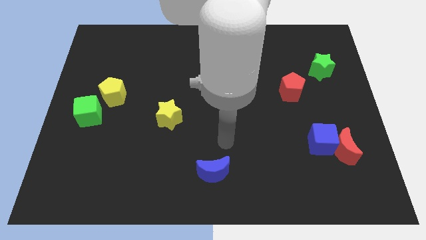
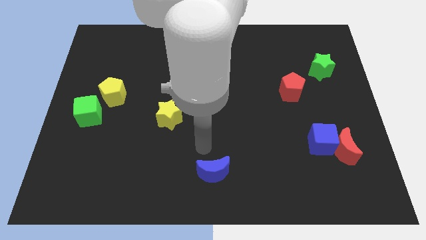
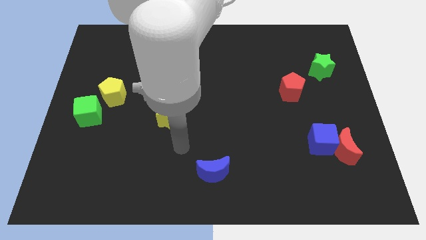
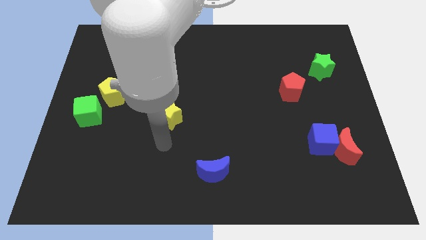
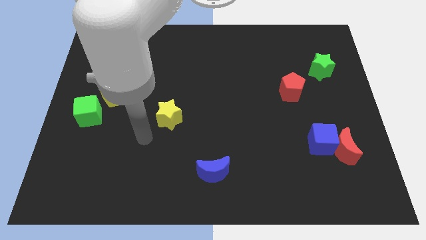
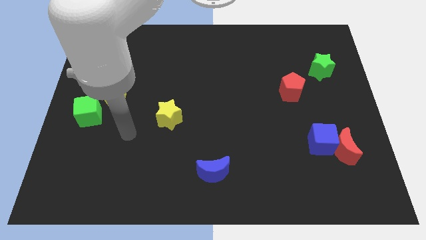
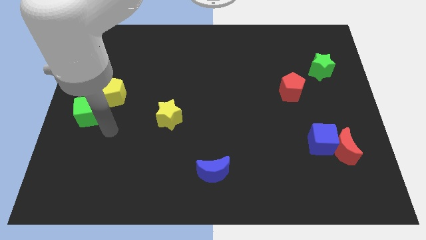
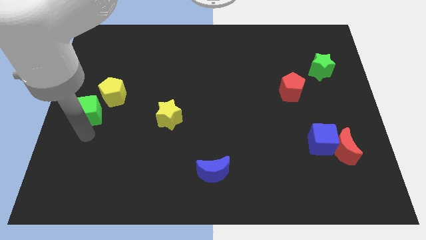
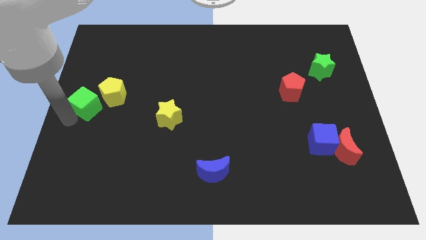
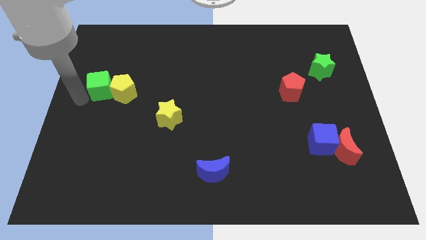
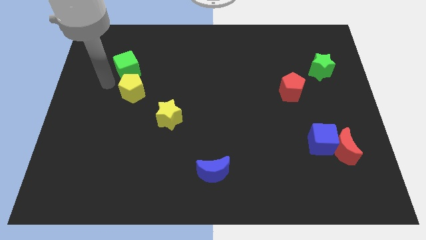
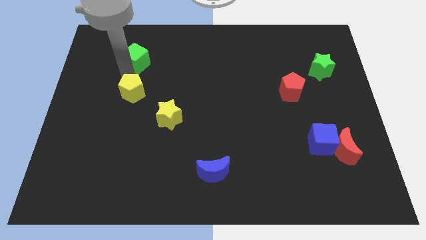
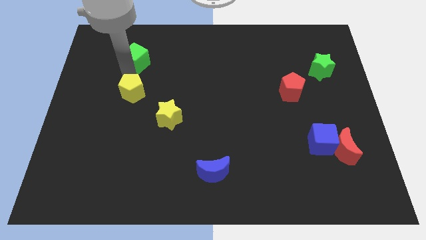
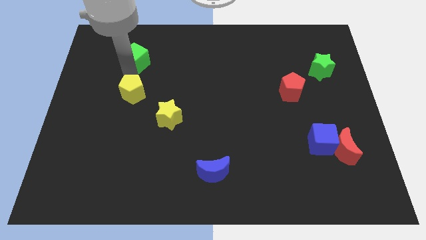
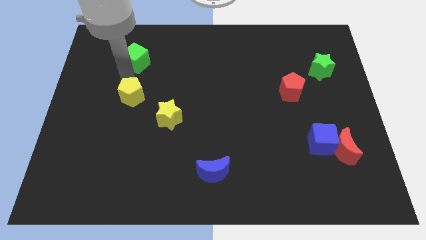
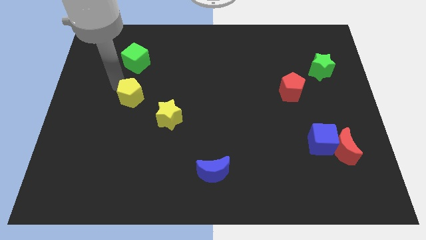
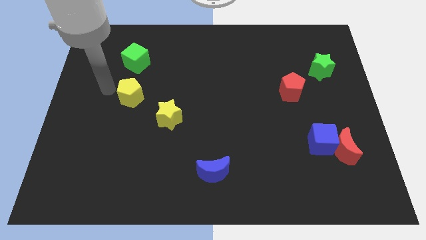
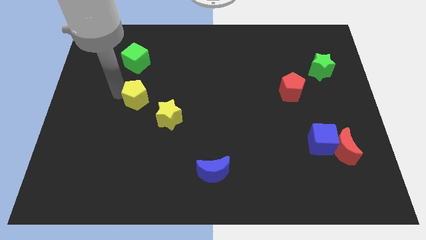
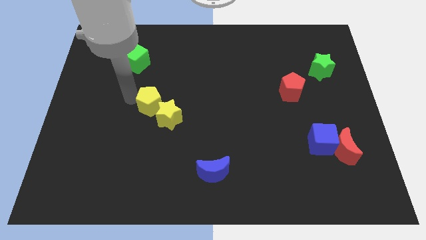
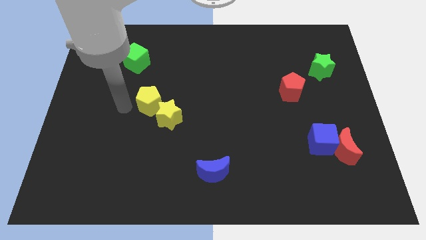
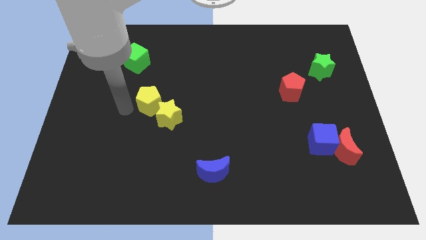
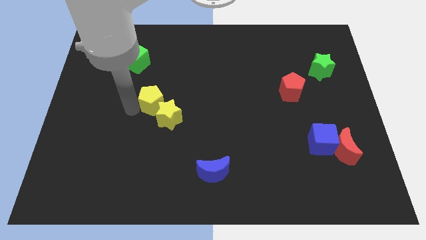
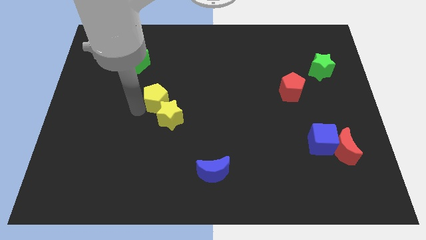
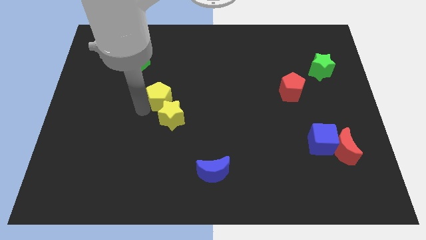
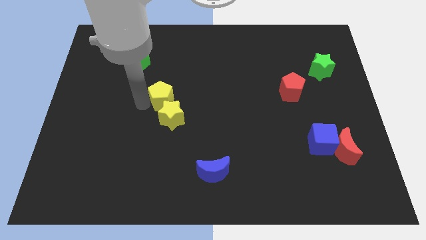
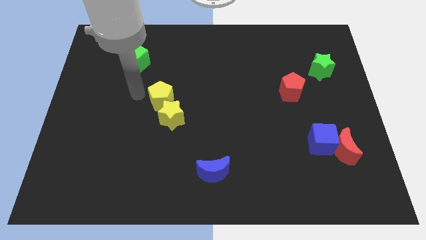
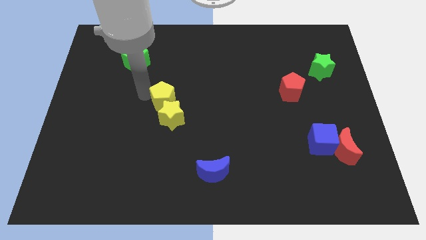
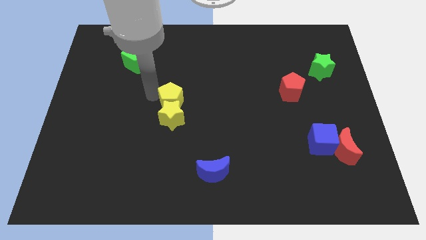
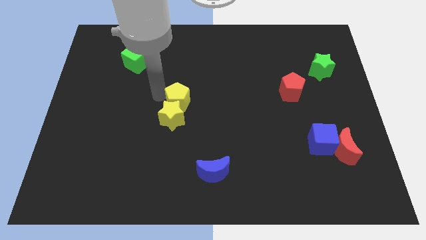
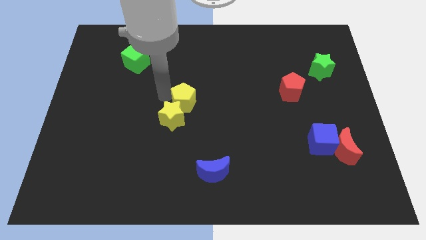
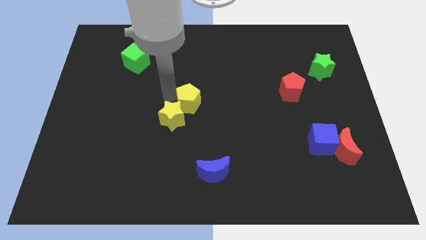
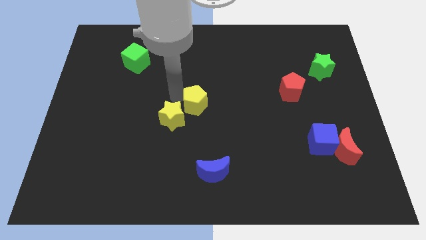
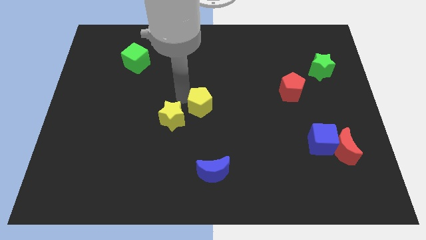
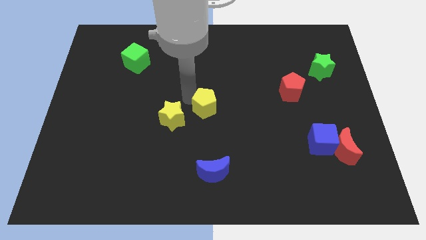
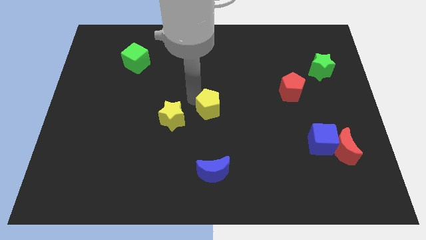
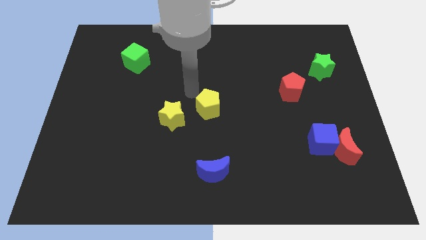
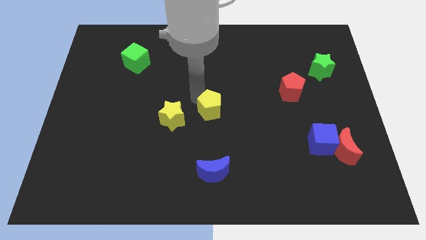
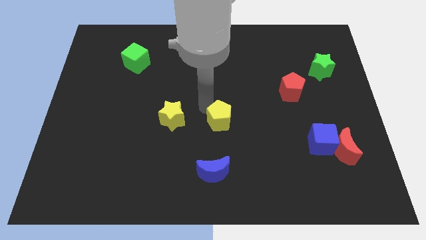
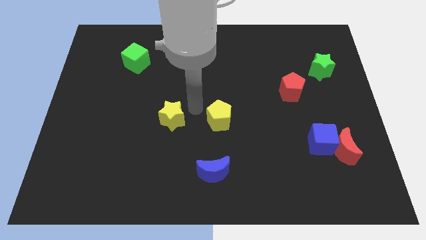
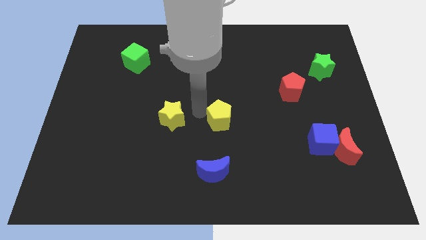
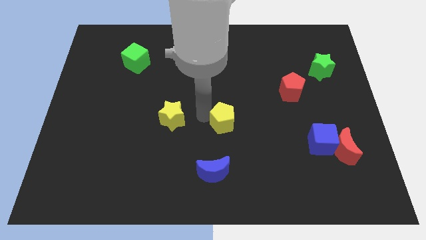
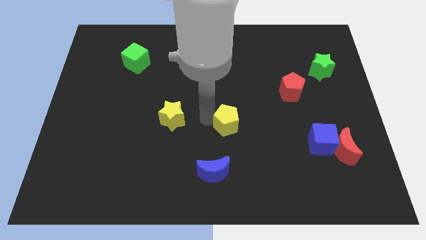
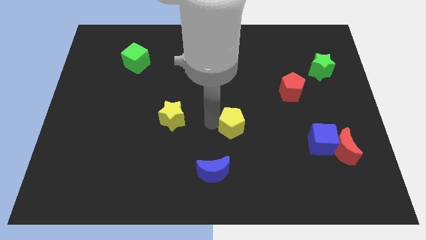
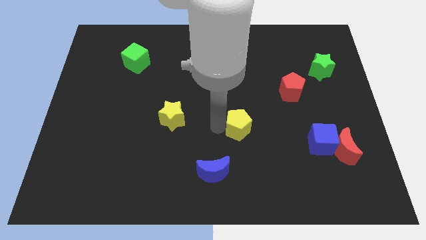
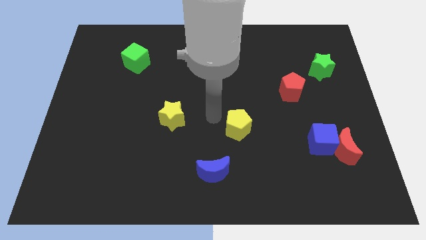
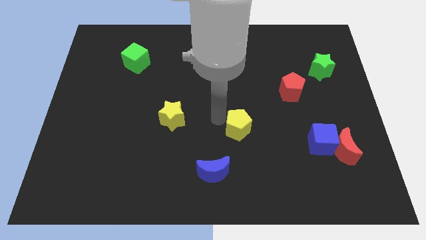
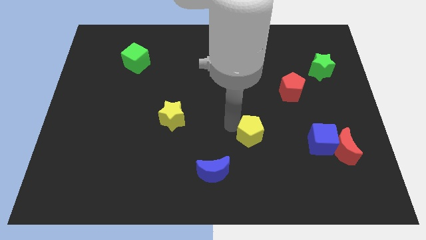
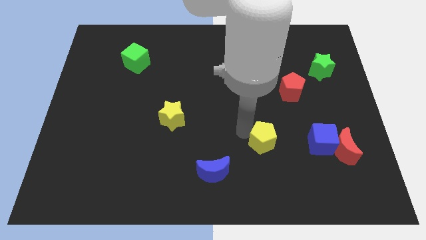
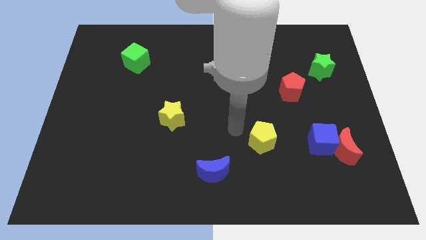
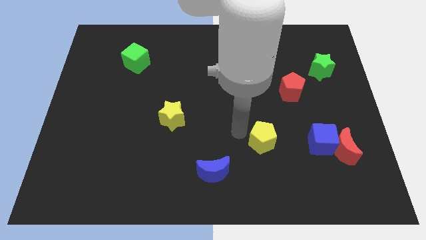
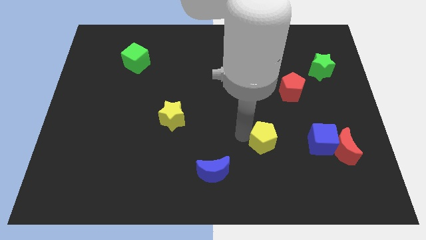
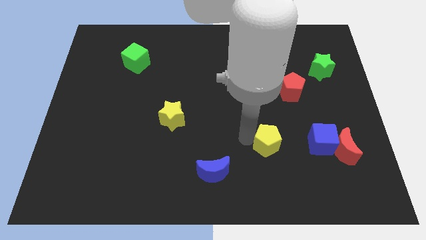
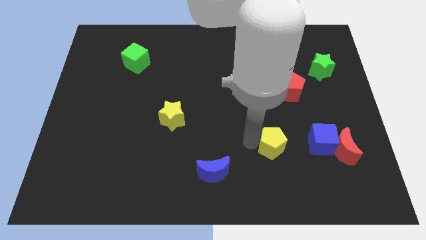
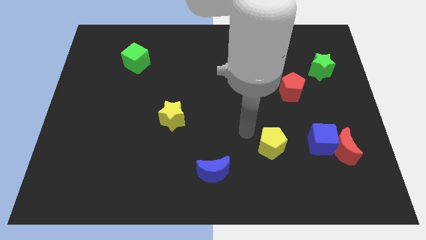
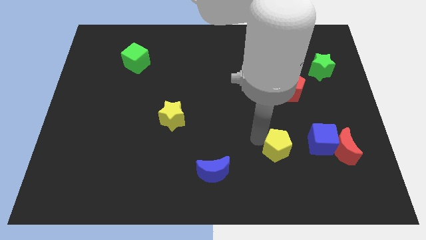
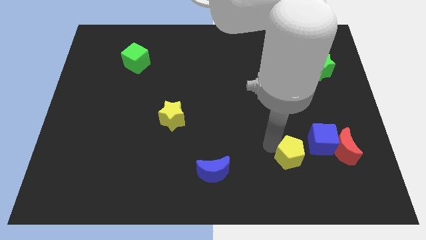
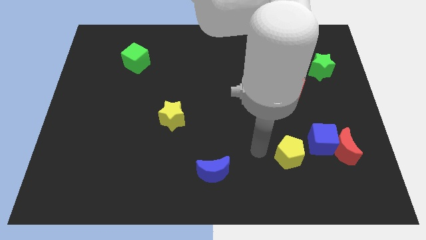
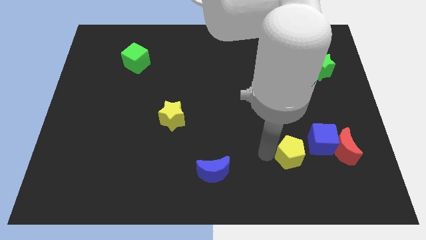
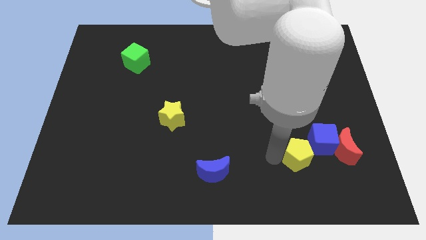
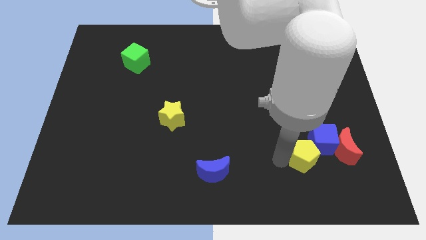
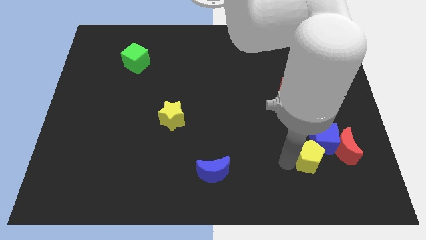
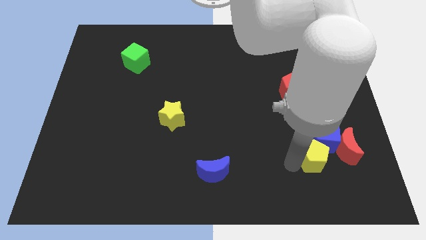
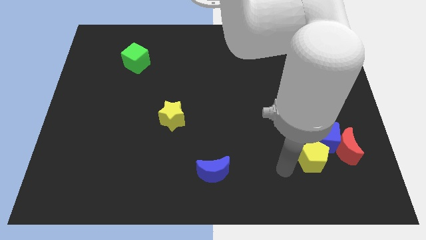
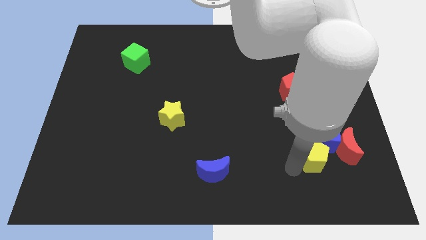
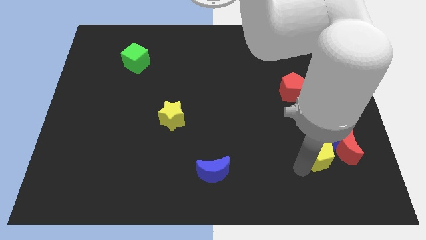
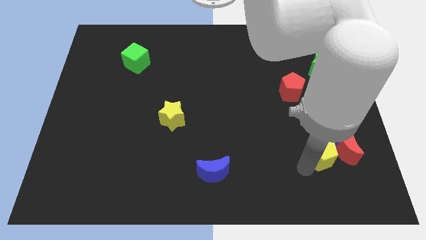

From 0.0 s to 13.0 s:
push the yellow pentagon close to the red moon
